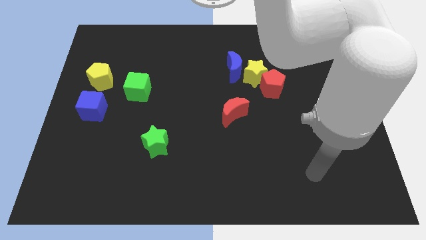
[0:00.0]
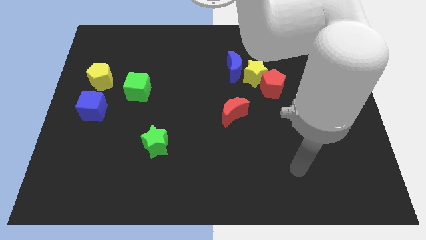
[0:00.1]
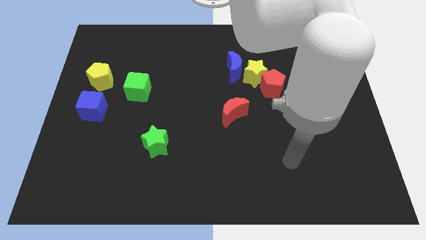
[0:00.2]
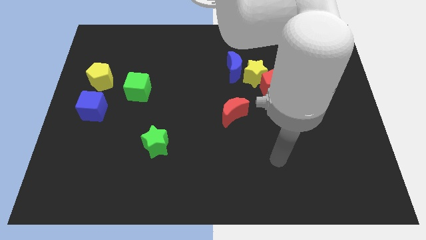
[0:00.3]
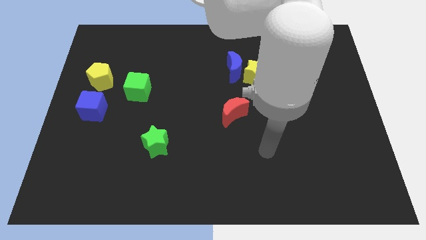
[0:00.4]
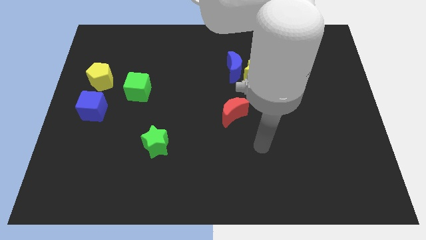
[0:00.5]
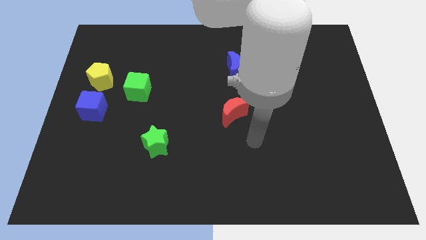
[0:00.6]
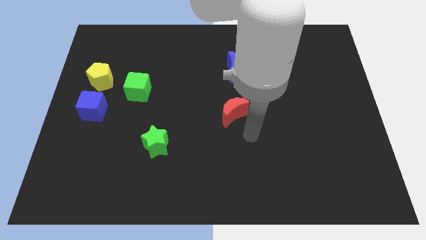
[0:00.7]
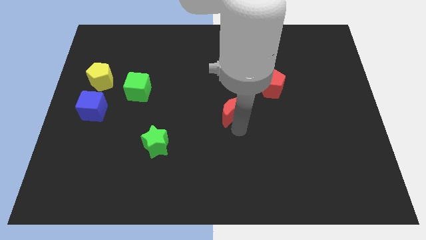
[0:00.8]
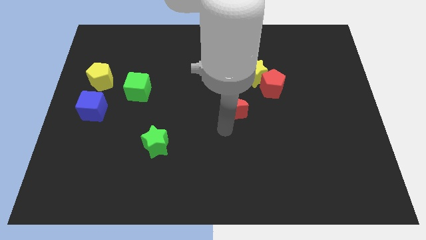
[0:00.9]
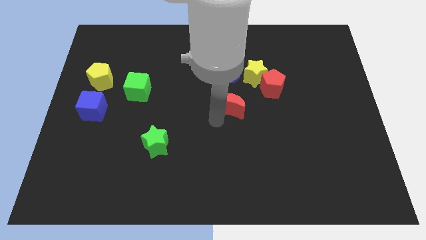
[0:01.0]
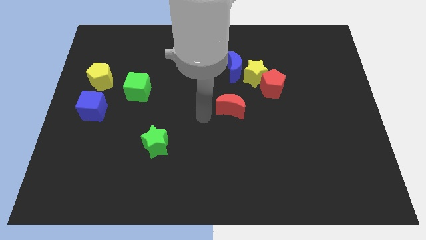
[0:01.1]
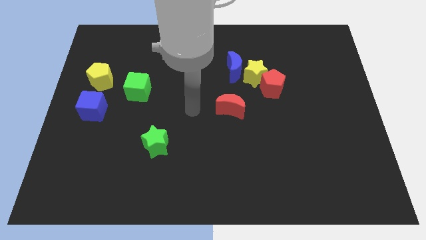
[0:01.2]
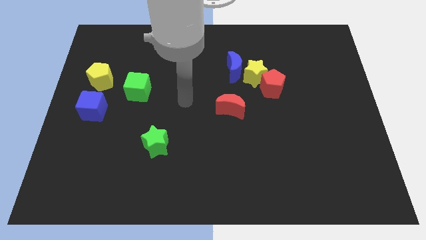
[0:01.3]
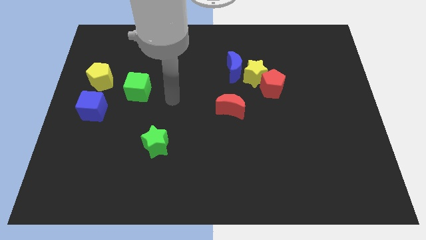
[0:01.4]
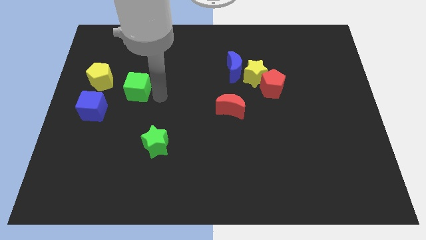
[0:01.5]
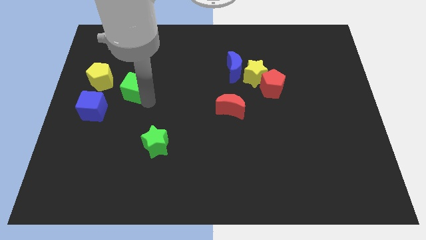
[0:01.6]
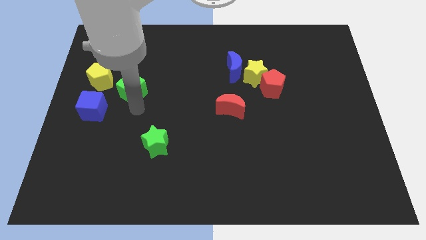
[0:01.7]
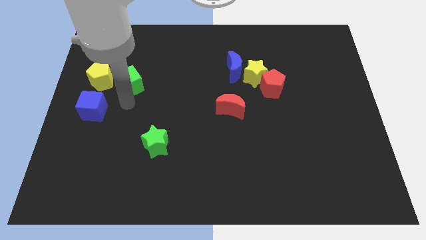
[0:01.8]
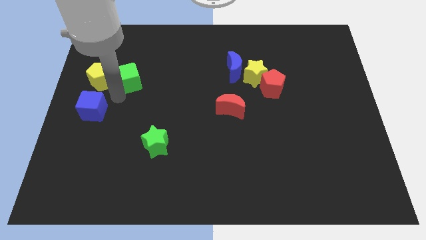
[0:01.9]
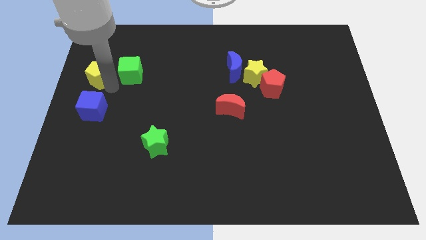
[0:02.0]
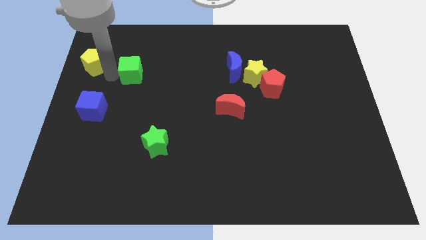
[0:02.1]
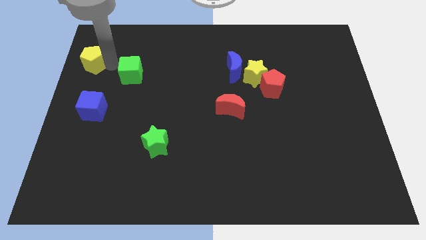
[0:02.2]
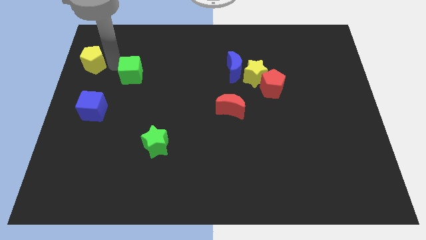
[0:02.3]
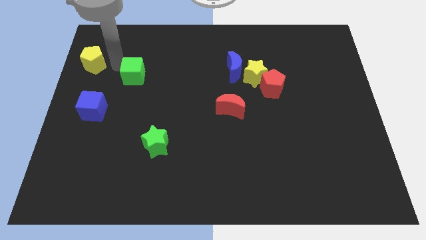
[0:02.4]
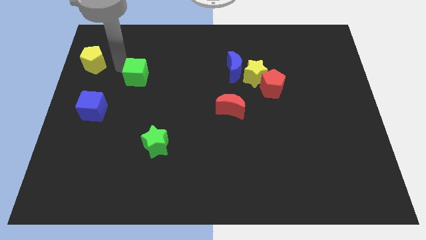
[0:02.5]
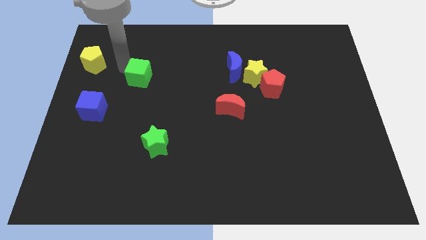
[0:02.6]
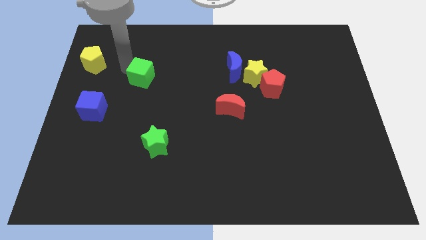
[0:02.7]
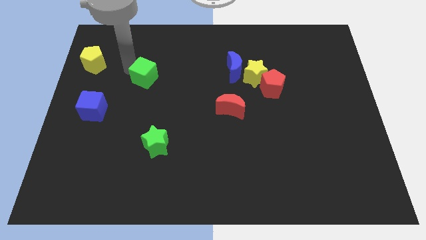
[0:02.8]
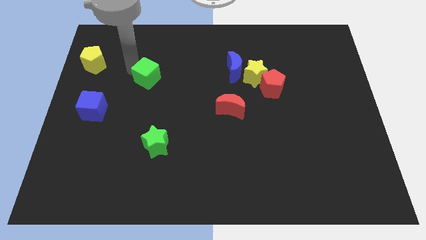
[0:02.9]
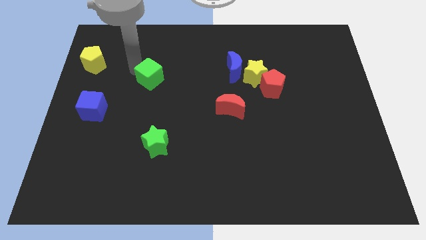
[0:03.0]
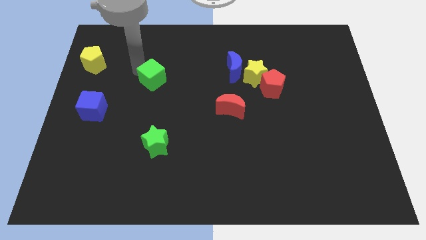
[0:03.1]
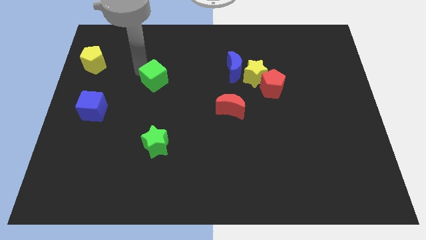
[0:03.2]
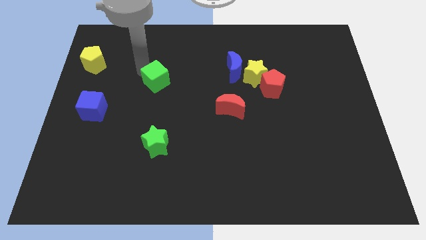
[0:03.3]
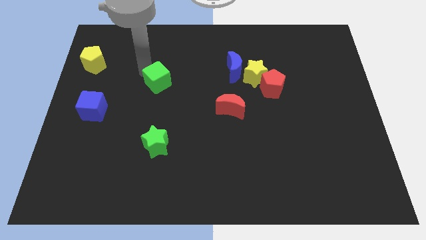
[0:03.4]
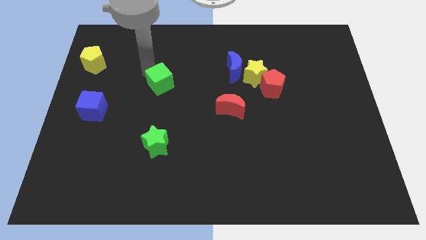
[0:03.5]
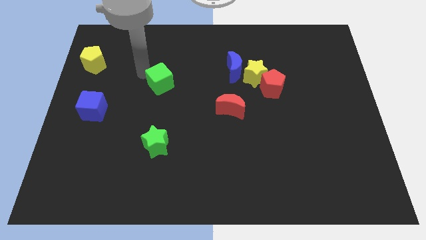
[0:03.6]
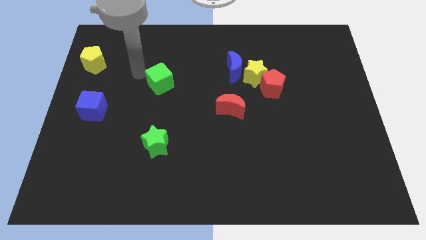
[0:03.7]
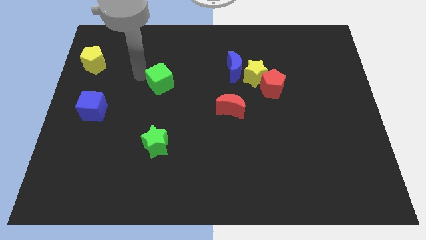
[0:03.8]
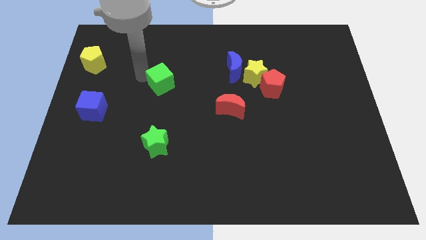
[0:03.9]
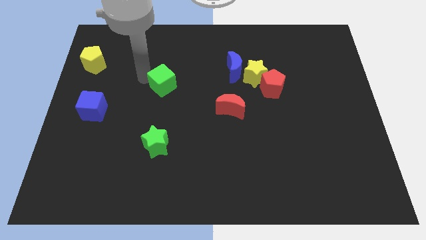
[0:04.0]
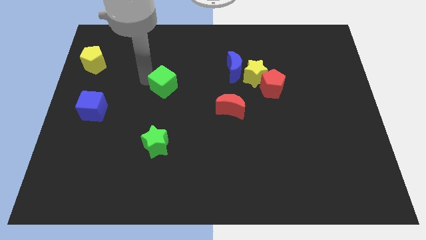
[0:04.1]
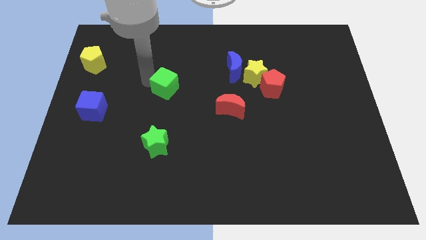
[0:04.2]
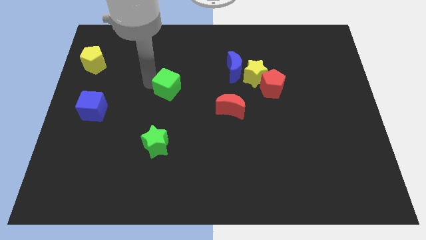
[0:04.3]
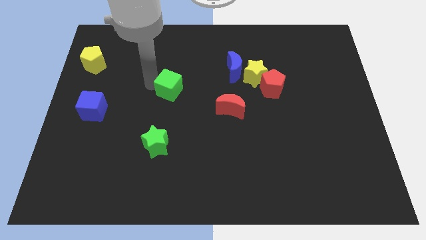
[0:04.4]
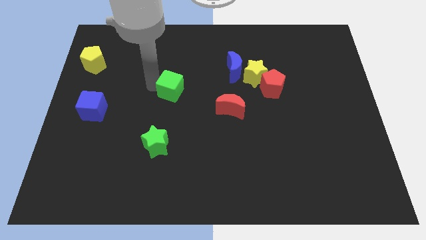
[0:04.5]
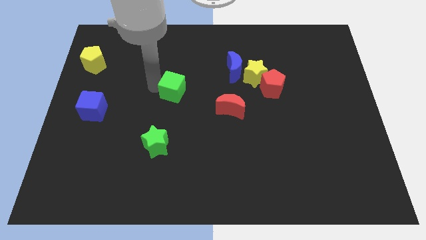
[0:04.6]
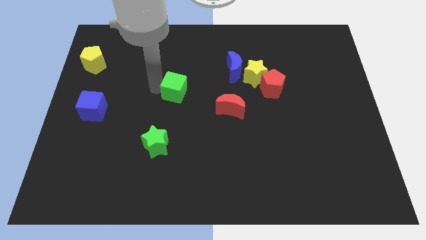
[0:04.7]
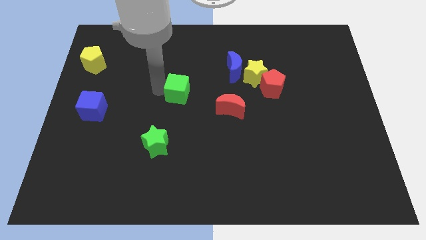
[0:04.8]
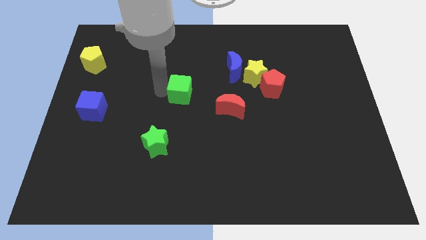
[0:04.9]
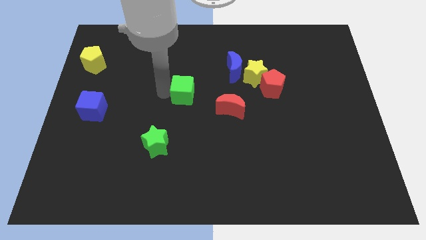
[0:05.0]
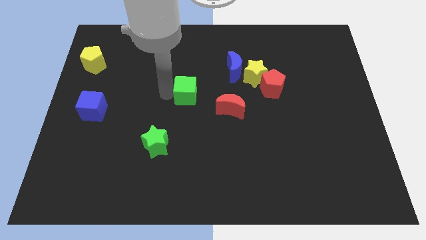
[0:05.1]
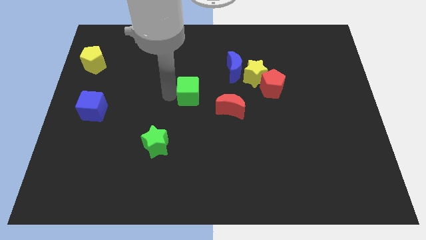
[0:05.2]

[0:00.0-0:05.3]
slide the green cube diagonally up and to the left of the red moon

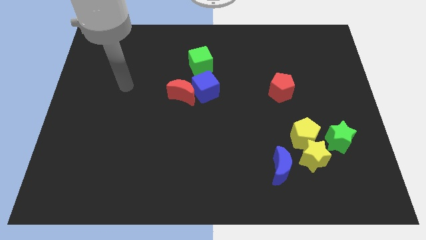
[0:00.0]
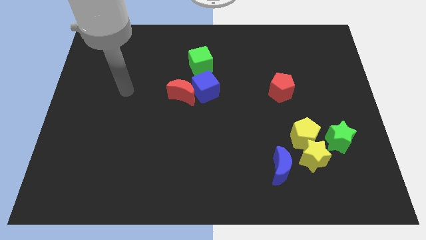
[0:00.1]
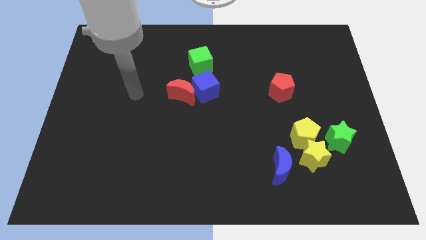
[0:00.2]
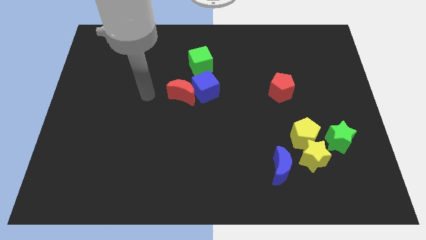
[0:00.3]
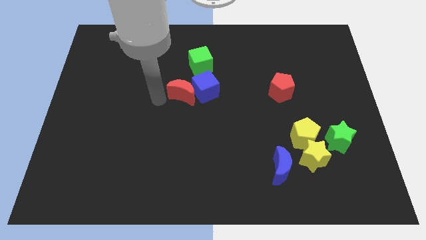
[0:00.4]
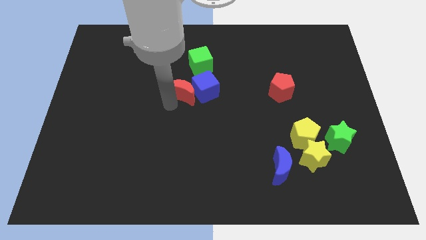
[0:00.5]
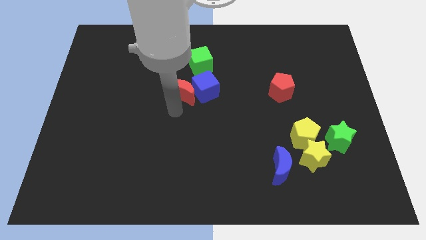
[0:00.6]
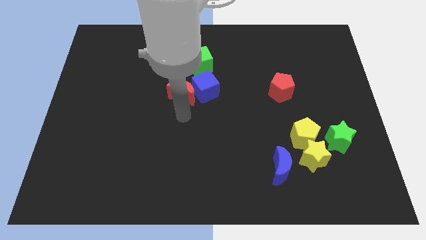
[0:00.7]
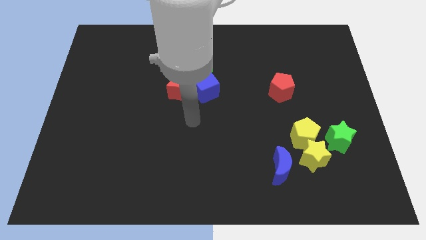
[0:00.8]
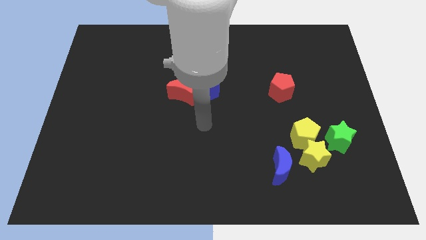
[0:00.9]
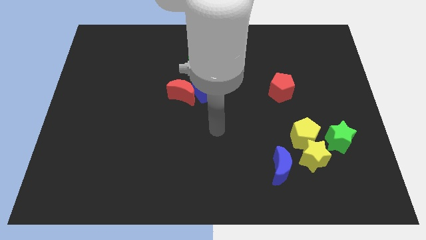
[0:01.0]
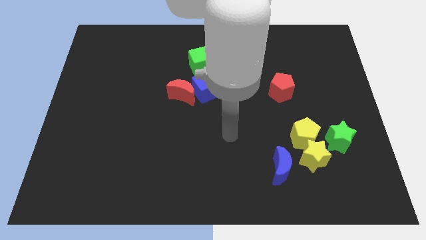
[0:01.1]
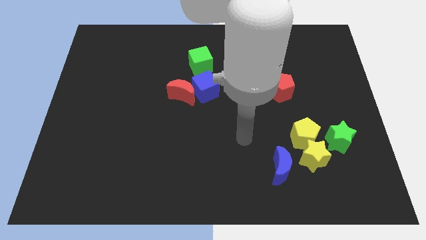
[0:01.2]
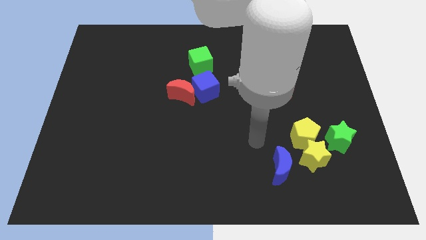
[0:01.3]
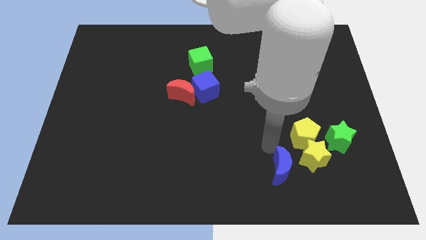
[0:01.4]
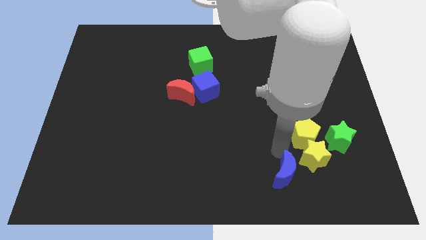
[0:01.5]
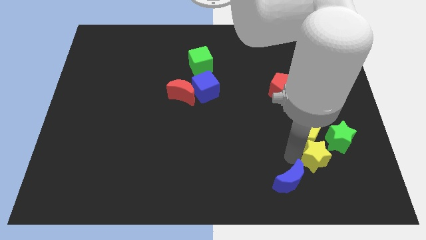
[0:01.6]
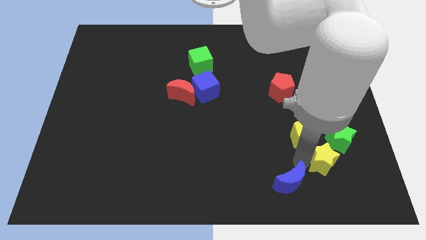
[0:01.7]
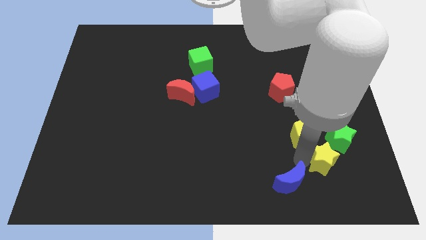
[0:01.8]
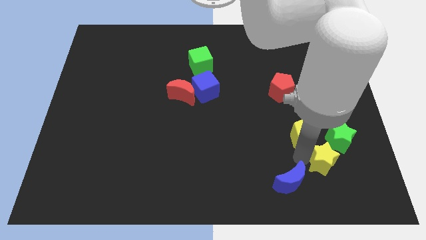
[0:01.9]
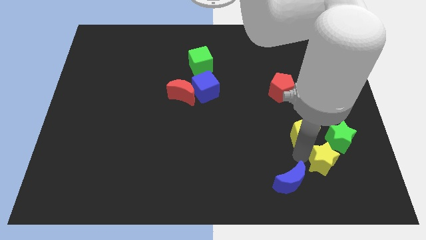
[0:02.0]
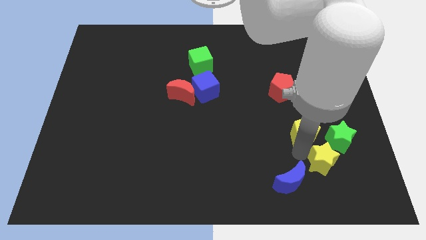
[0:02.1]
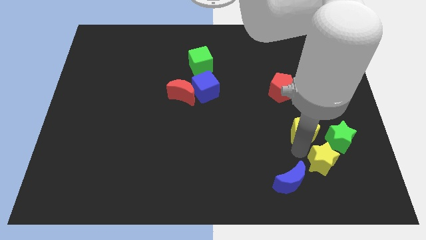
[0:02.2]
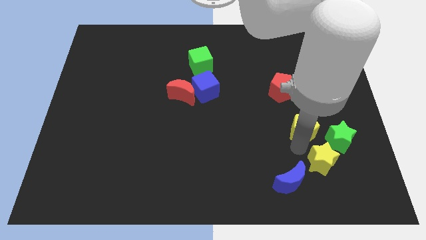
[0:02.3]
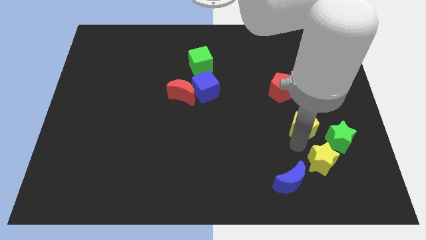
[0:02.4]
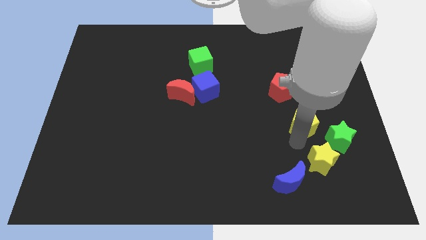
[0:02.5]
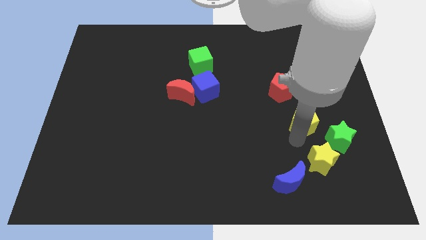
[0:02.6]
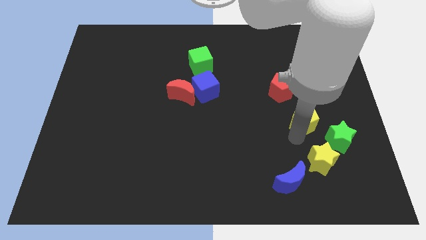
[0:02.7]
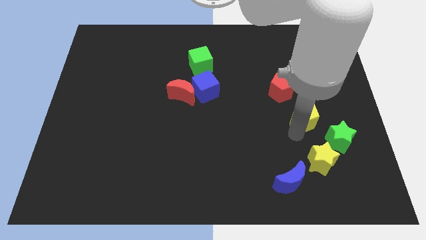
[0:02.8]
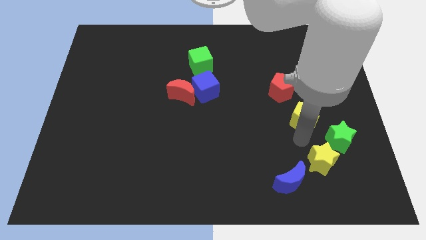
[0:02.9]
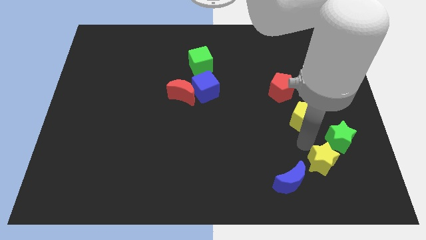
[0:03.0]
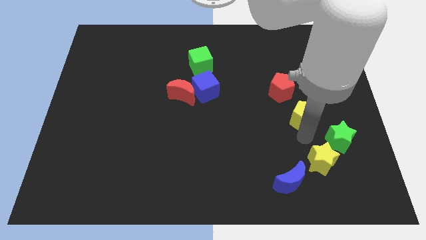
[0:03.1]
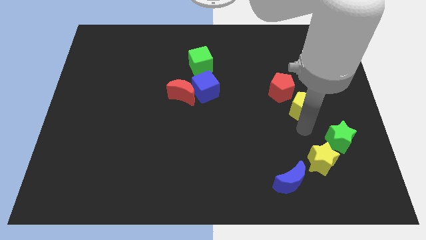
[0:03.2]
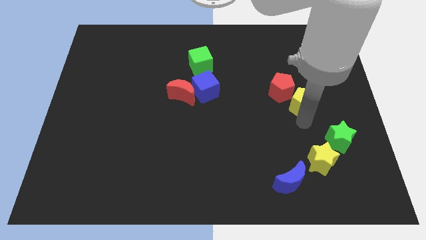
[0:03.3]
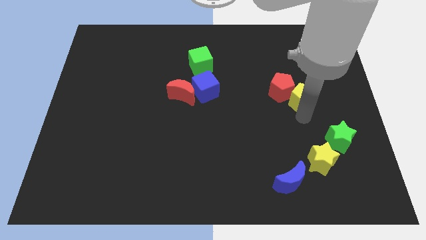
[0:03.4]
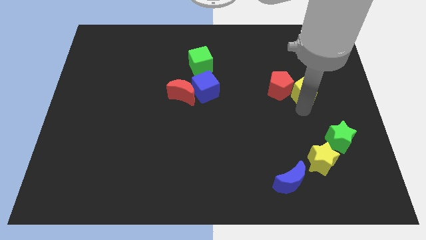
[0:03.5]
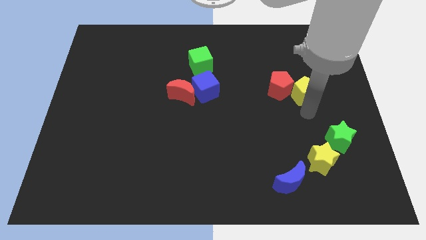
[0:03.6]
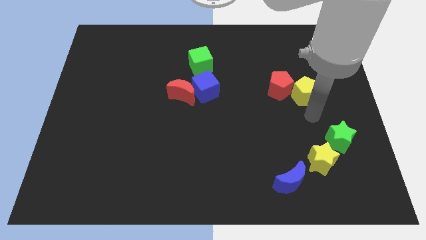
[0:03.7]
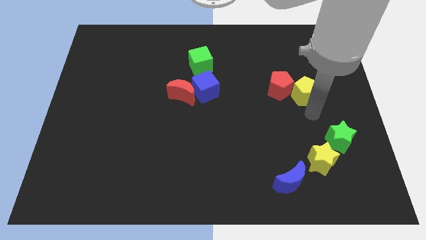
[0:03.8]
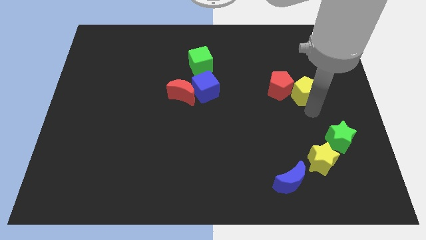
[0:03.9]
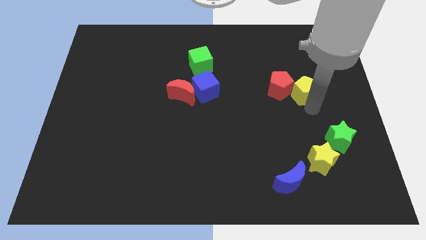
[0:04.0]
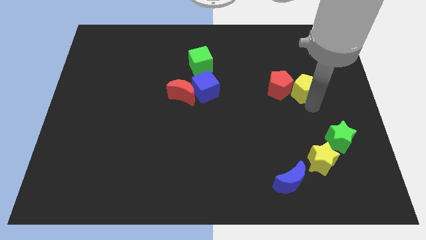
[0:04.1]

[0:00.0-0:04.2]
push the yellow pentagon to the top right side of the red pentagon
